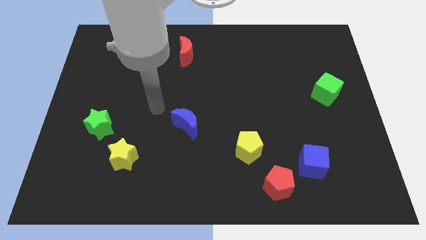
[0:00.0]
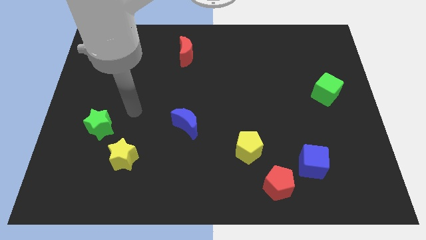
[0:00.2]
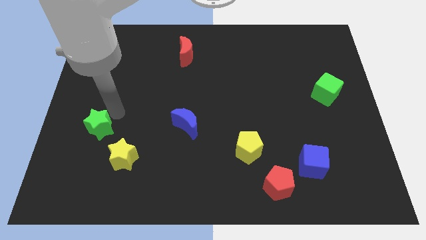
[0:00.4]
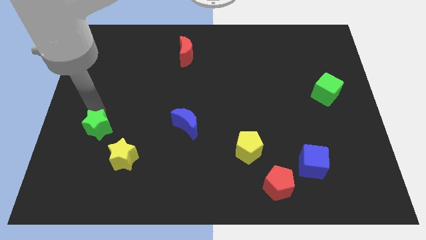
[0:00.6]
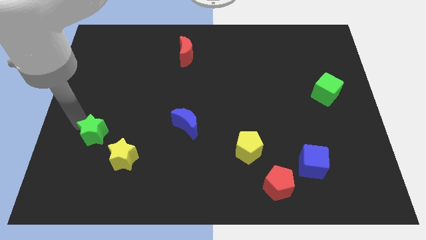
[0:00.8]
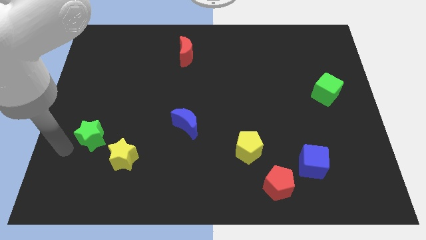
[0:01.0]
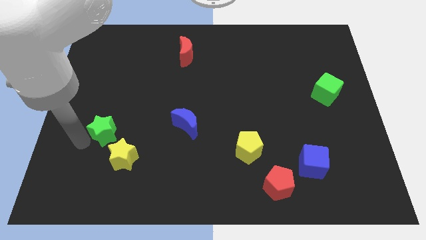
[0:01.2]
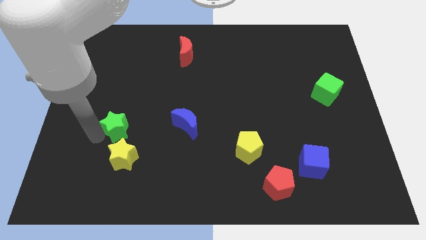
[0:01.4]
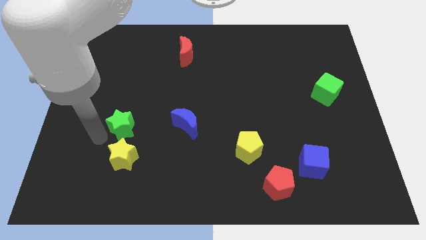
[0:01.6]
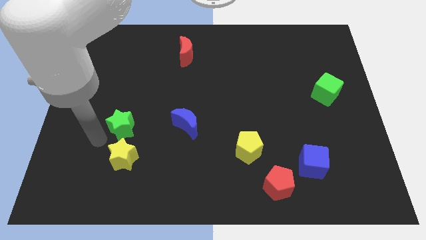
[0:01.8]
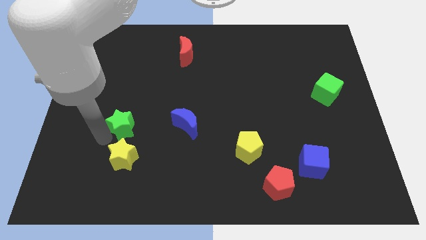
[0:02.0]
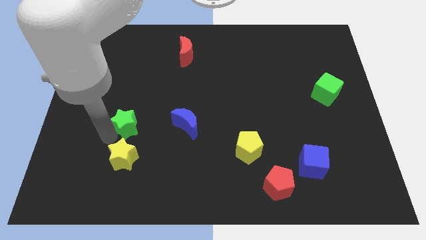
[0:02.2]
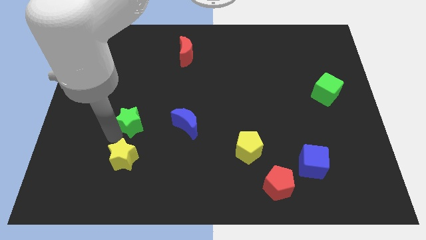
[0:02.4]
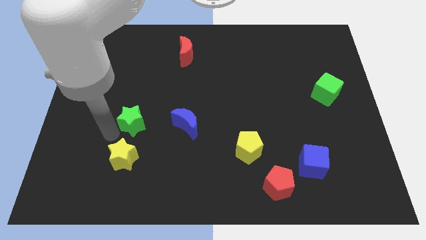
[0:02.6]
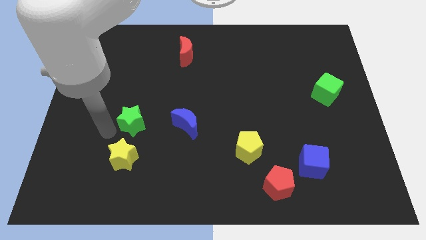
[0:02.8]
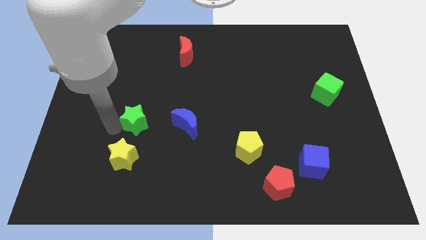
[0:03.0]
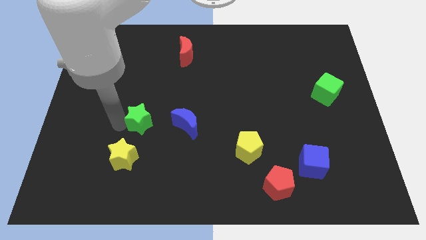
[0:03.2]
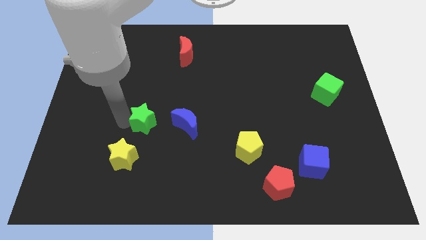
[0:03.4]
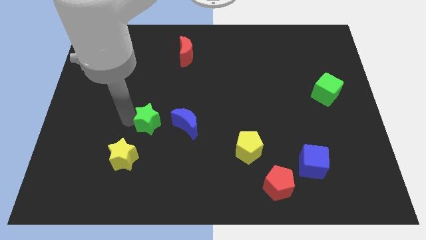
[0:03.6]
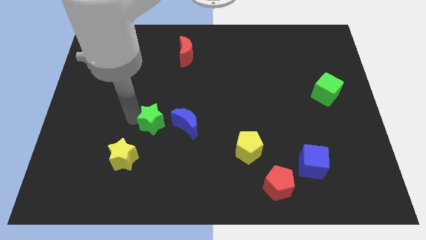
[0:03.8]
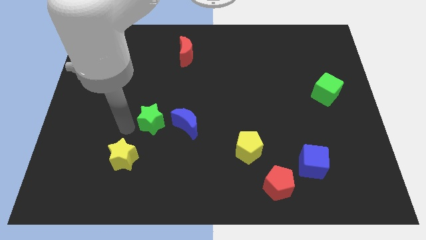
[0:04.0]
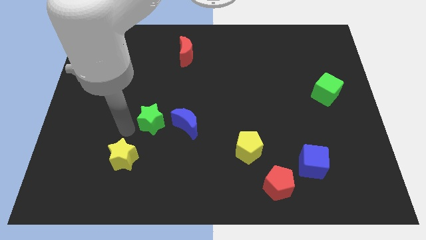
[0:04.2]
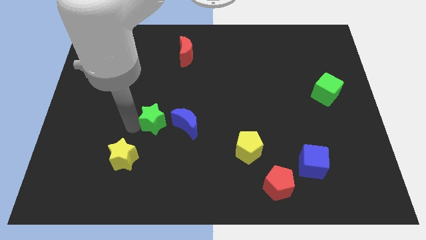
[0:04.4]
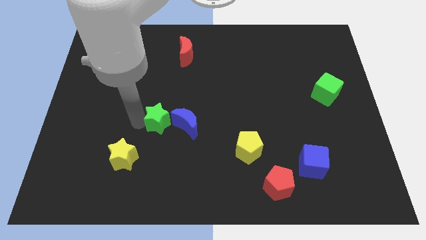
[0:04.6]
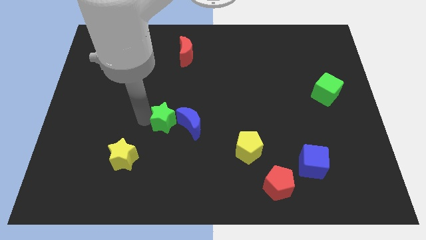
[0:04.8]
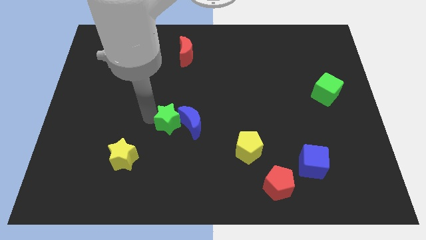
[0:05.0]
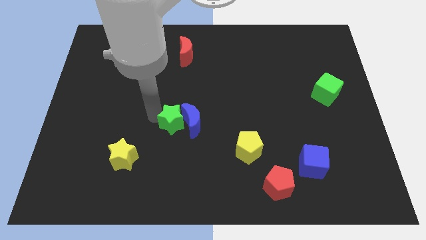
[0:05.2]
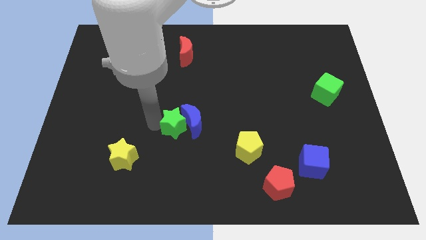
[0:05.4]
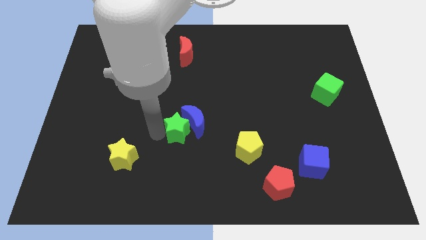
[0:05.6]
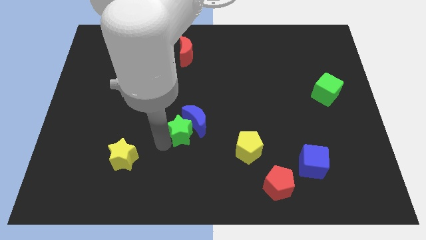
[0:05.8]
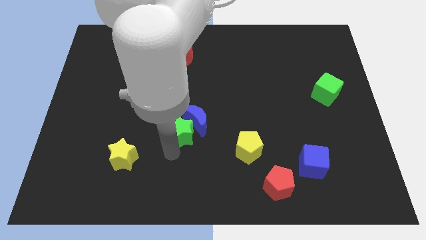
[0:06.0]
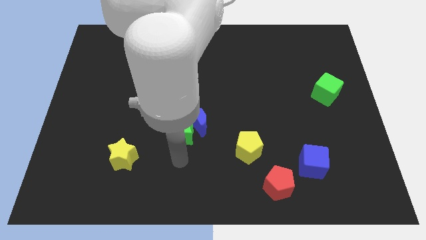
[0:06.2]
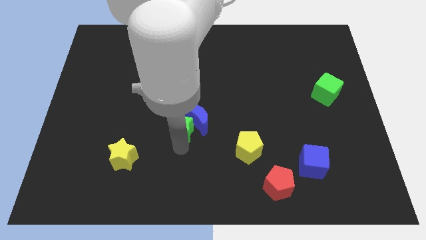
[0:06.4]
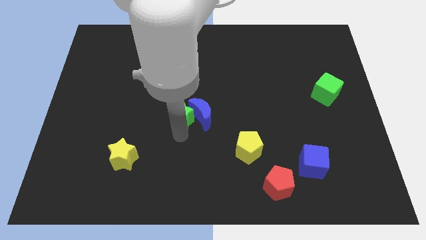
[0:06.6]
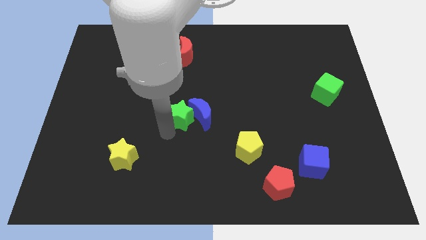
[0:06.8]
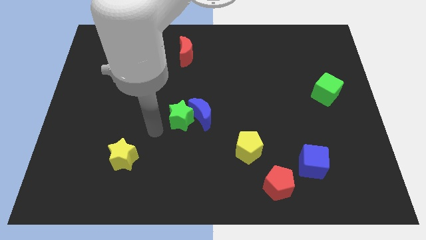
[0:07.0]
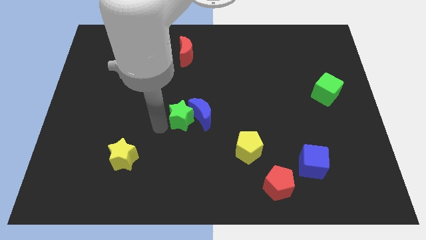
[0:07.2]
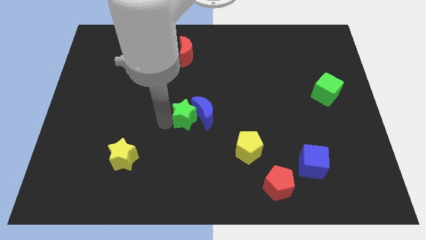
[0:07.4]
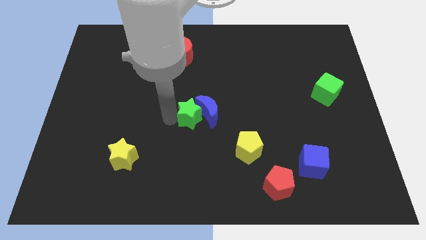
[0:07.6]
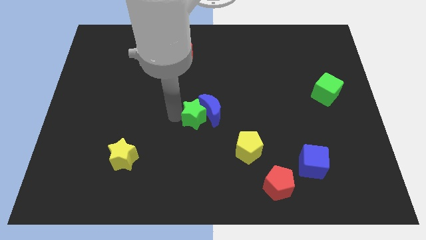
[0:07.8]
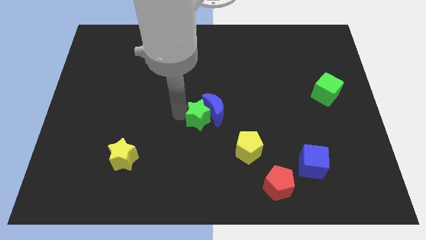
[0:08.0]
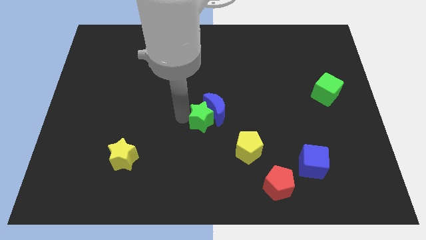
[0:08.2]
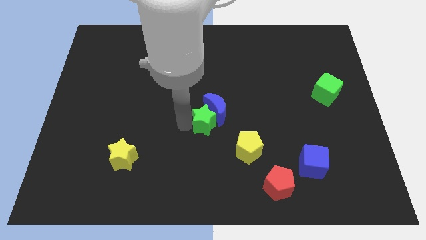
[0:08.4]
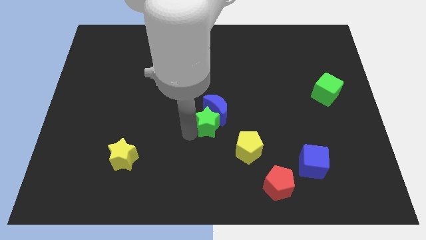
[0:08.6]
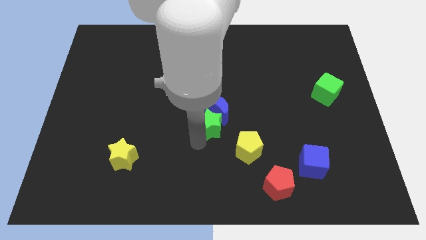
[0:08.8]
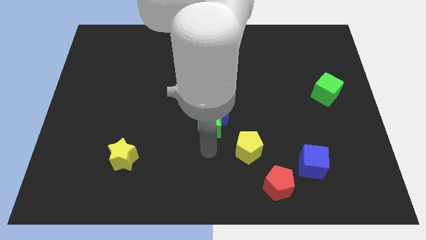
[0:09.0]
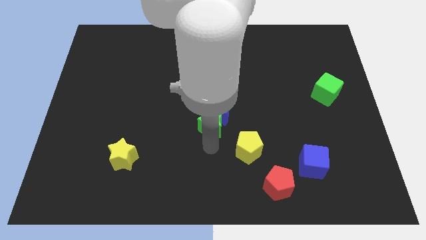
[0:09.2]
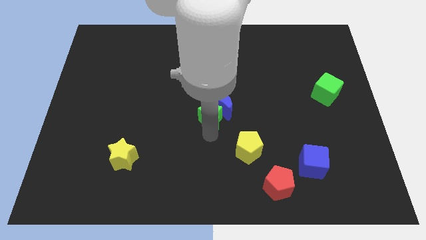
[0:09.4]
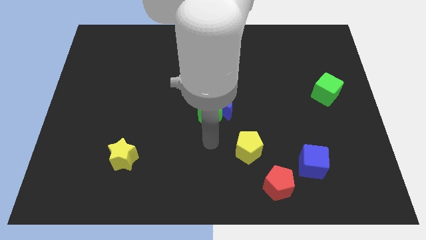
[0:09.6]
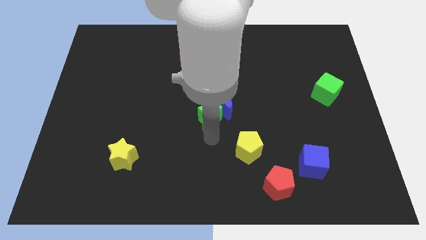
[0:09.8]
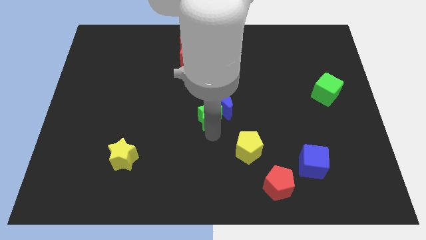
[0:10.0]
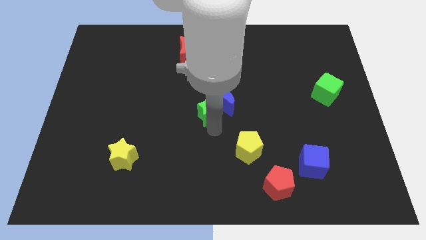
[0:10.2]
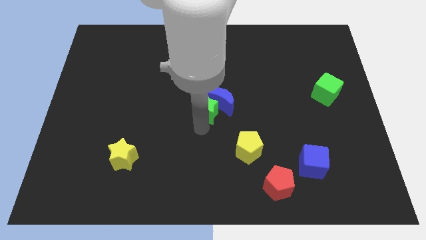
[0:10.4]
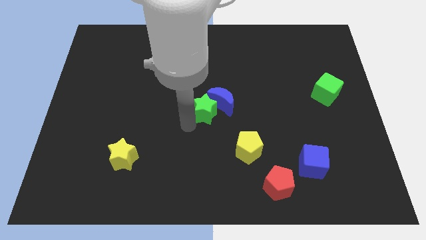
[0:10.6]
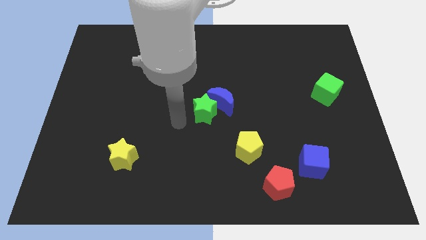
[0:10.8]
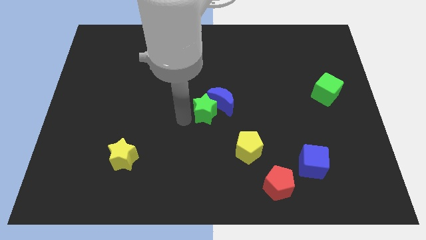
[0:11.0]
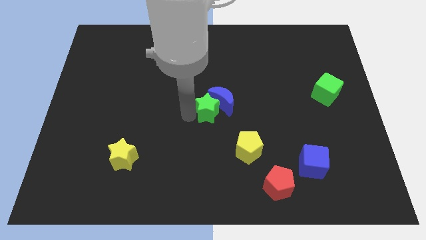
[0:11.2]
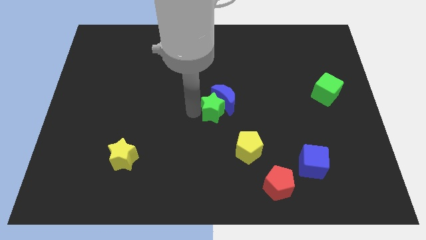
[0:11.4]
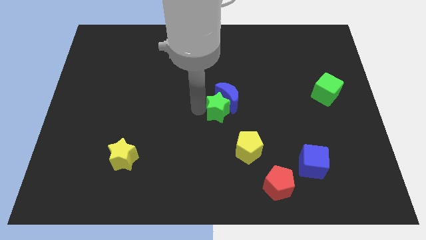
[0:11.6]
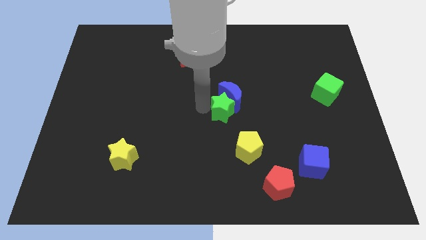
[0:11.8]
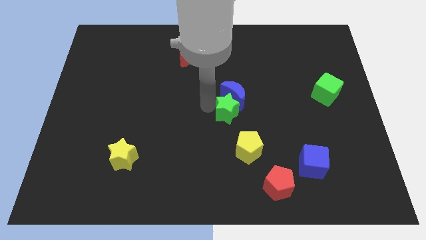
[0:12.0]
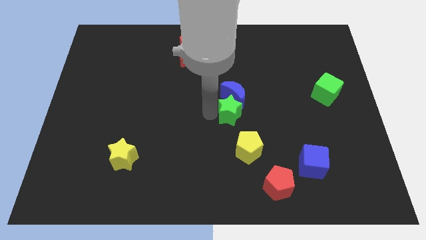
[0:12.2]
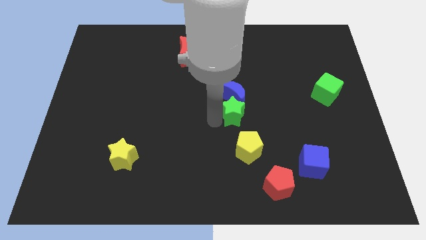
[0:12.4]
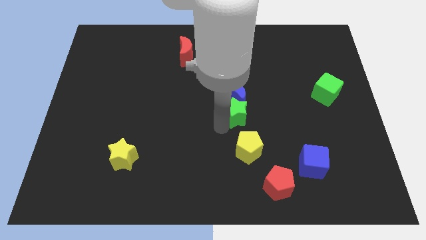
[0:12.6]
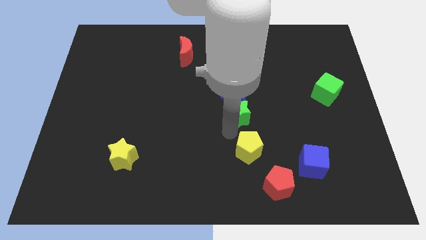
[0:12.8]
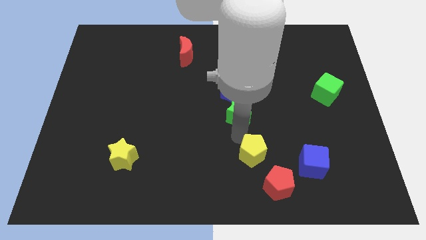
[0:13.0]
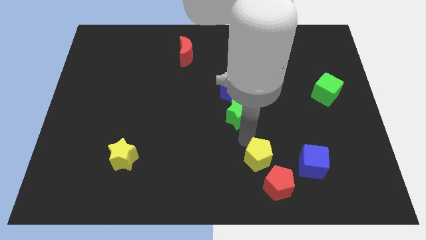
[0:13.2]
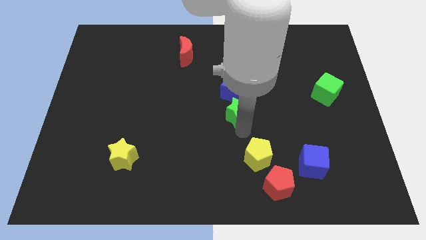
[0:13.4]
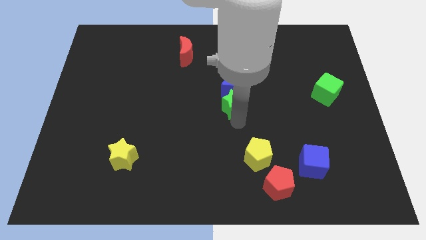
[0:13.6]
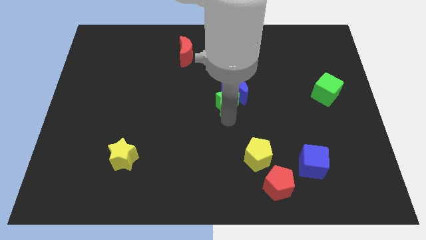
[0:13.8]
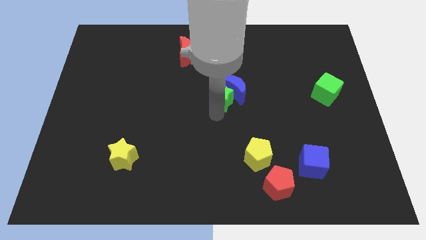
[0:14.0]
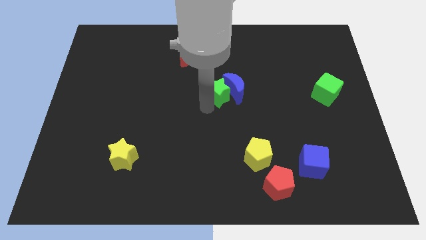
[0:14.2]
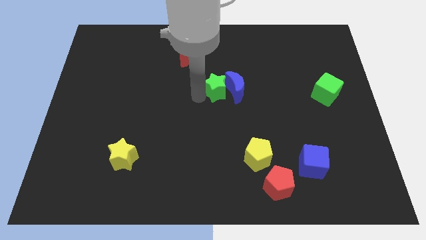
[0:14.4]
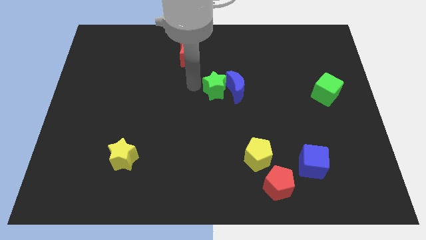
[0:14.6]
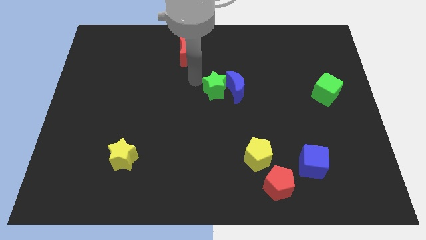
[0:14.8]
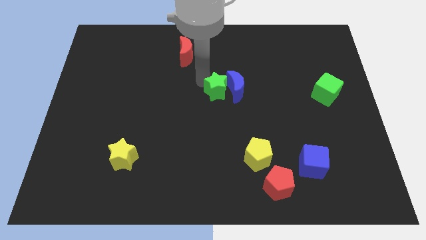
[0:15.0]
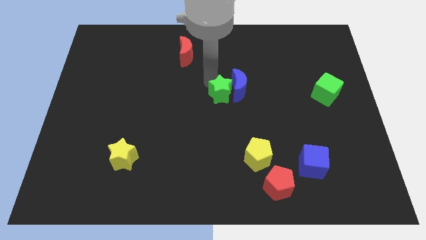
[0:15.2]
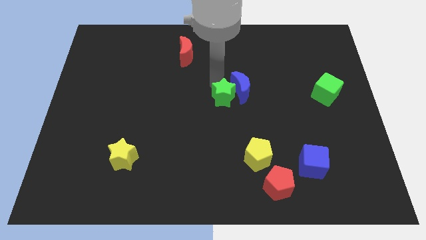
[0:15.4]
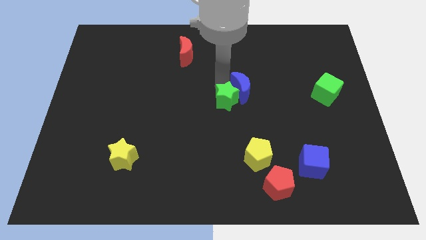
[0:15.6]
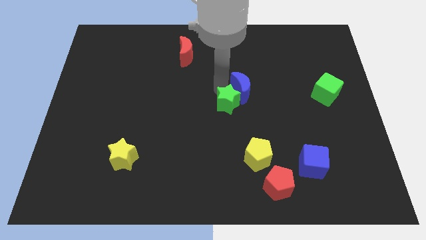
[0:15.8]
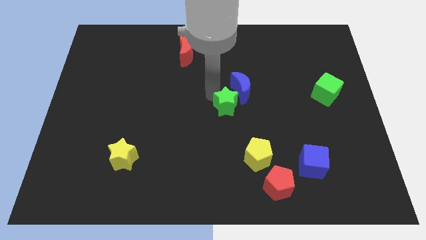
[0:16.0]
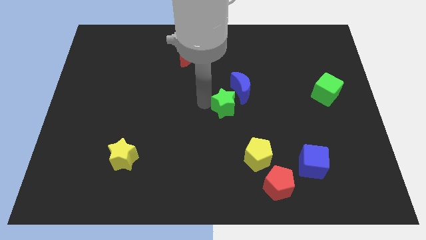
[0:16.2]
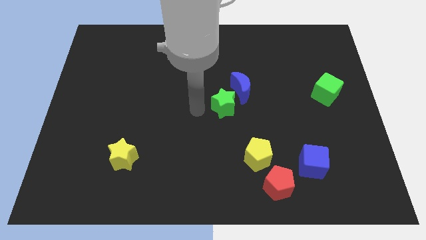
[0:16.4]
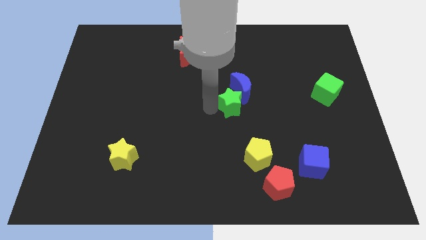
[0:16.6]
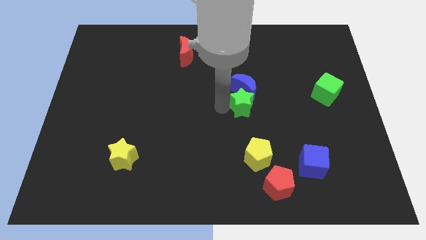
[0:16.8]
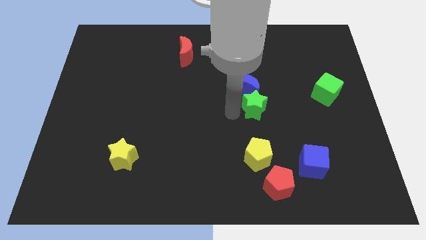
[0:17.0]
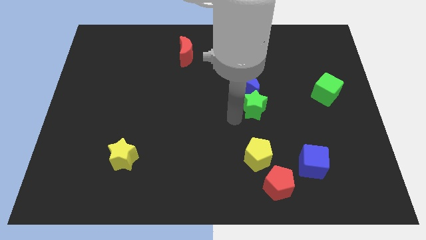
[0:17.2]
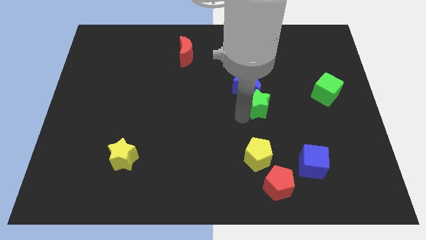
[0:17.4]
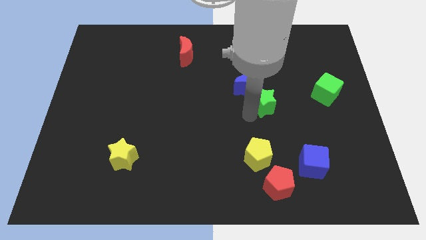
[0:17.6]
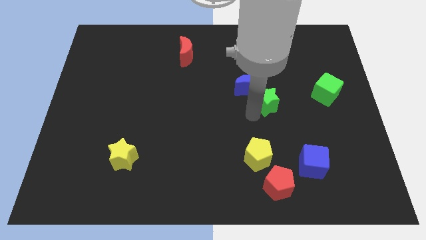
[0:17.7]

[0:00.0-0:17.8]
slide the green star left of the green cube
